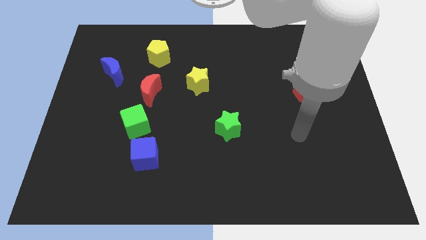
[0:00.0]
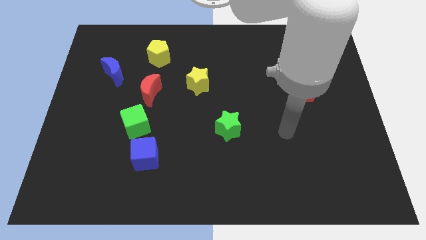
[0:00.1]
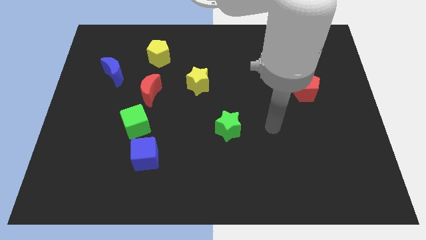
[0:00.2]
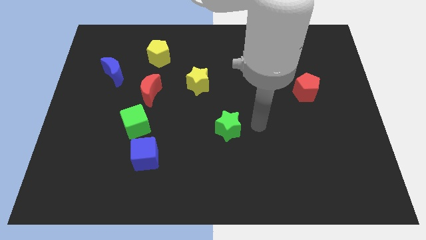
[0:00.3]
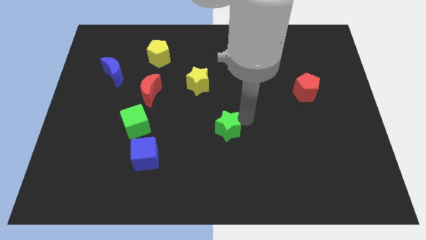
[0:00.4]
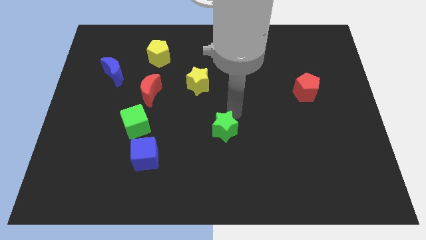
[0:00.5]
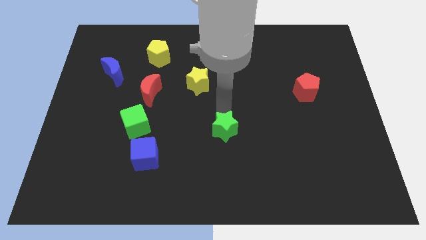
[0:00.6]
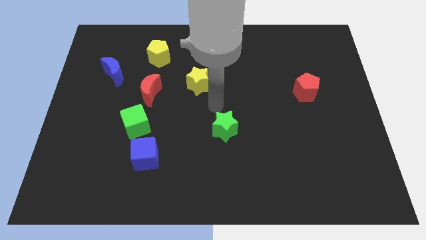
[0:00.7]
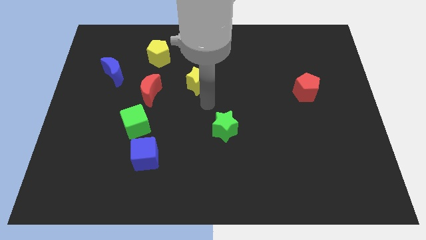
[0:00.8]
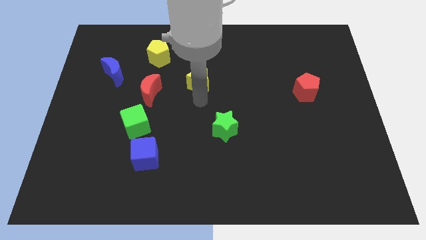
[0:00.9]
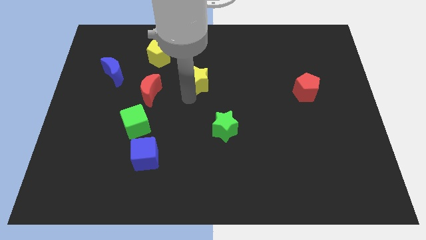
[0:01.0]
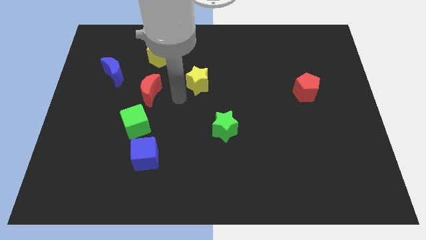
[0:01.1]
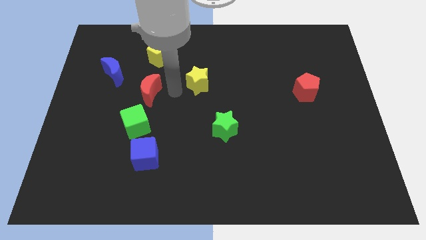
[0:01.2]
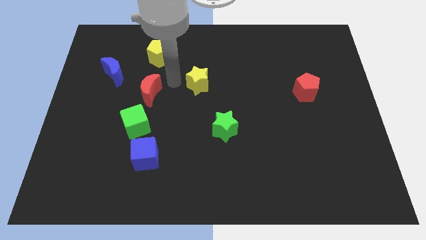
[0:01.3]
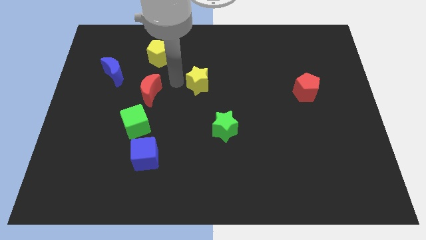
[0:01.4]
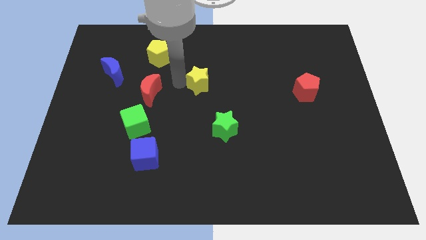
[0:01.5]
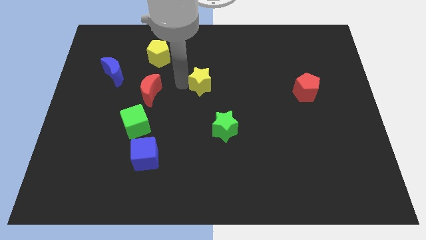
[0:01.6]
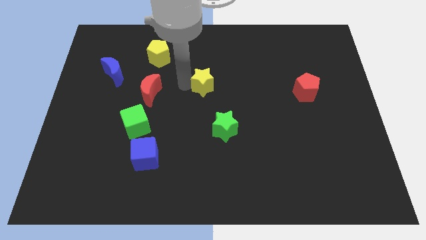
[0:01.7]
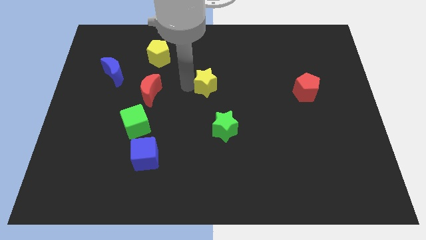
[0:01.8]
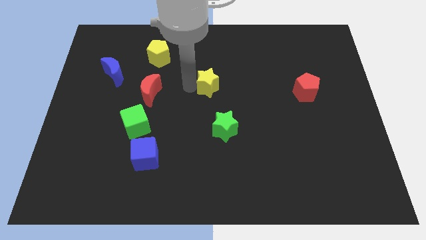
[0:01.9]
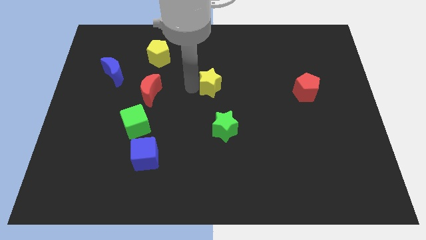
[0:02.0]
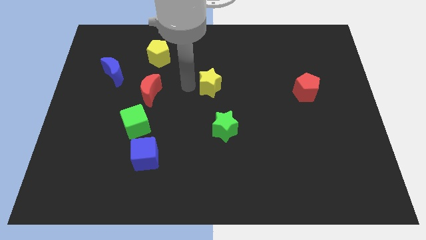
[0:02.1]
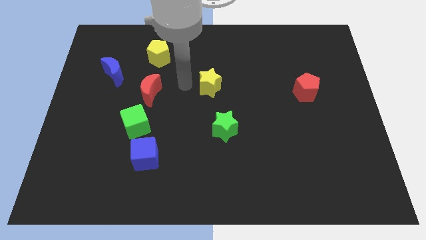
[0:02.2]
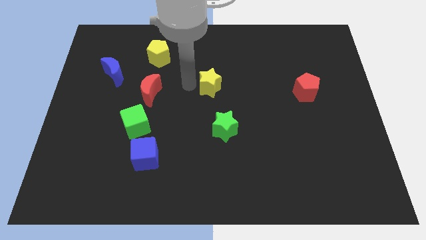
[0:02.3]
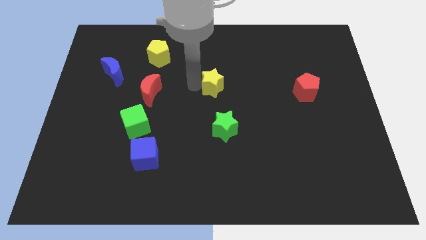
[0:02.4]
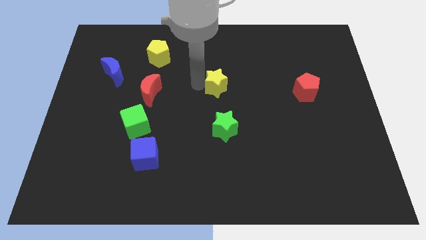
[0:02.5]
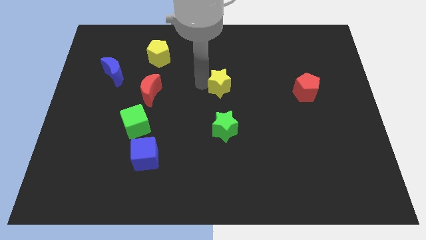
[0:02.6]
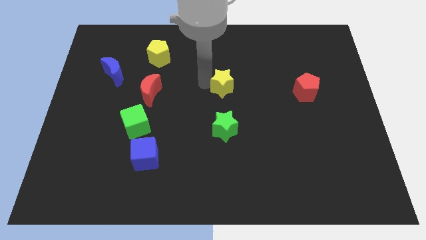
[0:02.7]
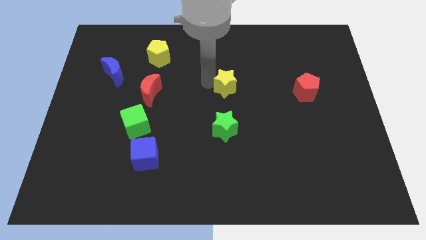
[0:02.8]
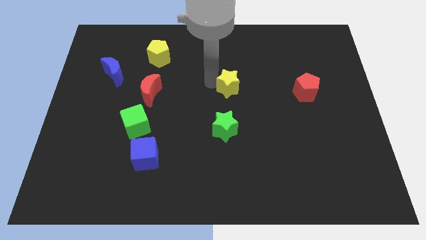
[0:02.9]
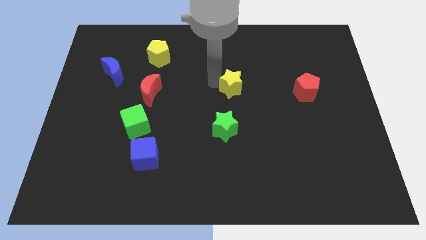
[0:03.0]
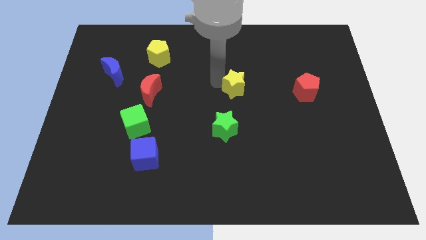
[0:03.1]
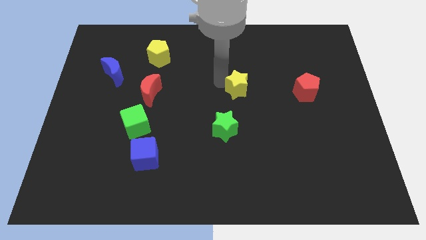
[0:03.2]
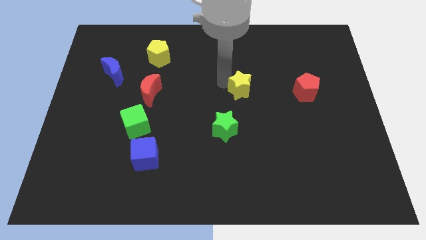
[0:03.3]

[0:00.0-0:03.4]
push the yellow star a little bit down and then right

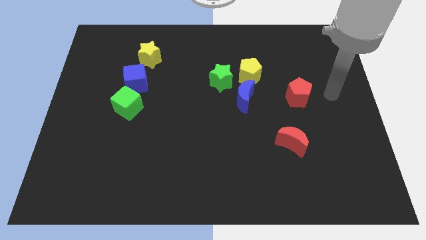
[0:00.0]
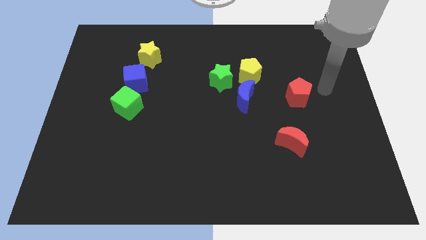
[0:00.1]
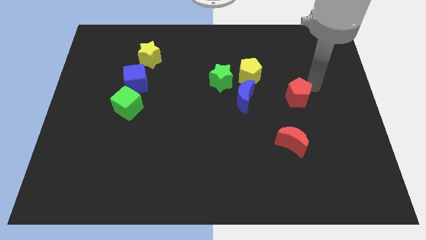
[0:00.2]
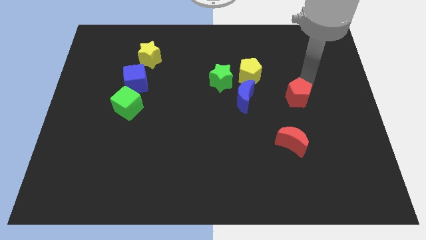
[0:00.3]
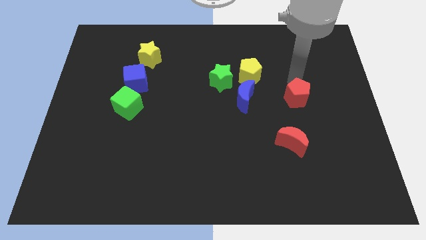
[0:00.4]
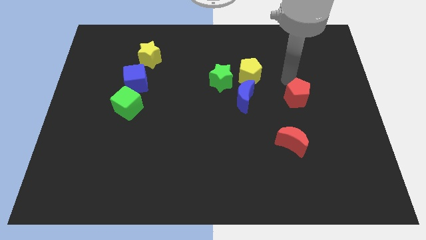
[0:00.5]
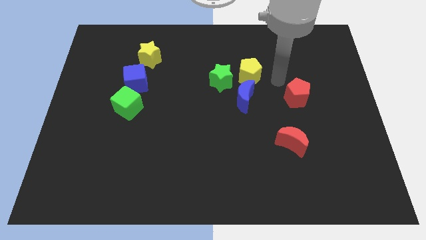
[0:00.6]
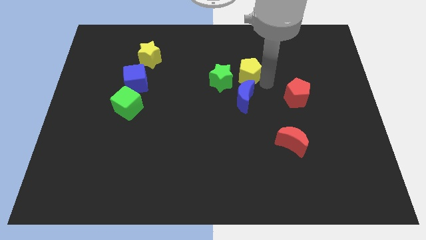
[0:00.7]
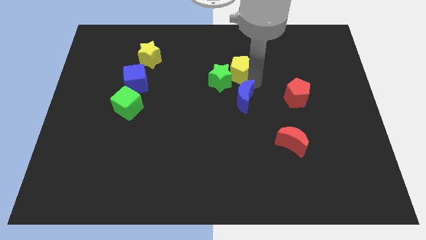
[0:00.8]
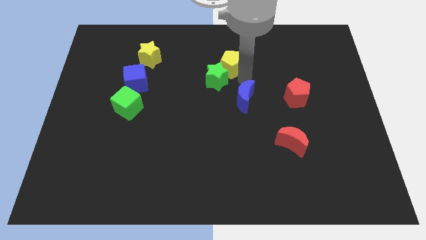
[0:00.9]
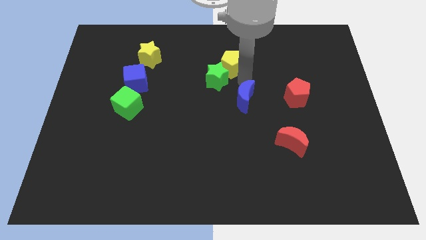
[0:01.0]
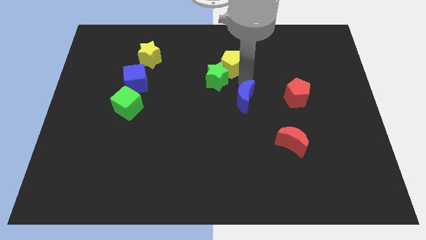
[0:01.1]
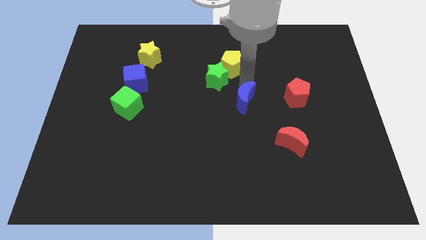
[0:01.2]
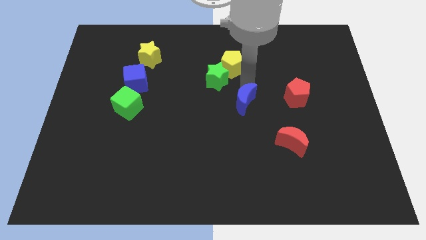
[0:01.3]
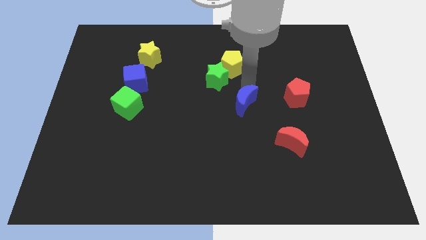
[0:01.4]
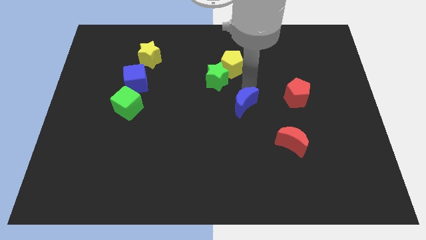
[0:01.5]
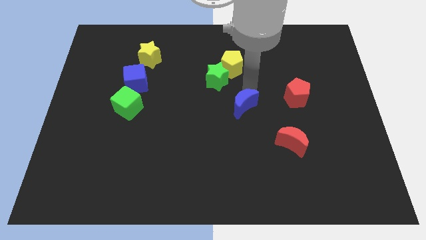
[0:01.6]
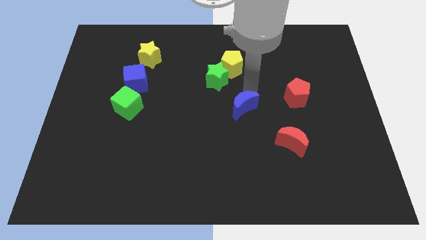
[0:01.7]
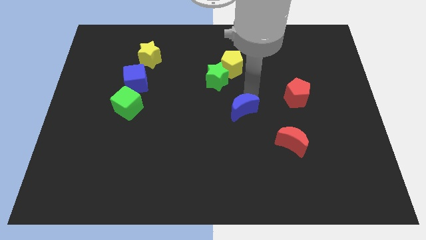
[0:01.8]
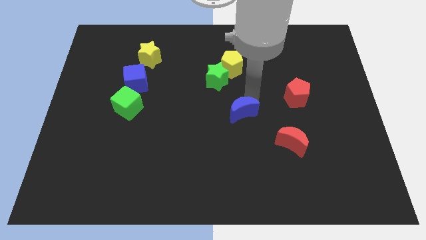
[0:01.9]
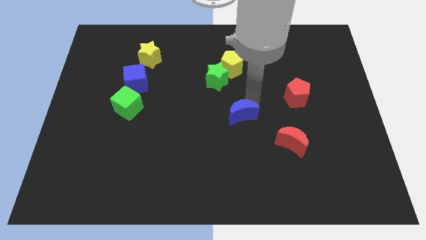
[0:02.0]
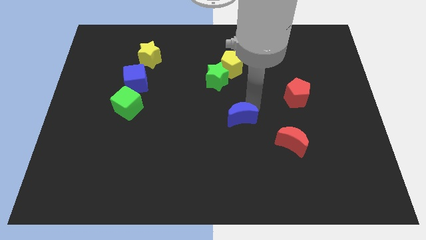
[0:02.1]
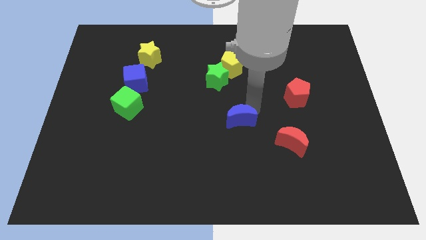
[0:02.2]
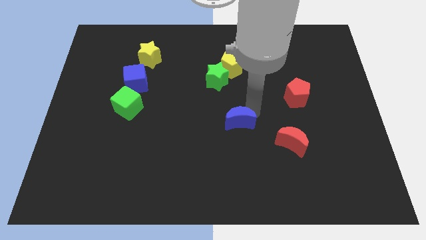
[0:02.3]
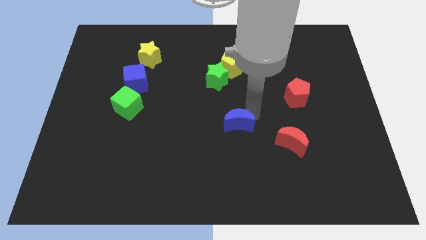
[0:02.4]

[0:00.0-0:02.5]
move the blue moon down a little bit

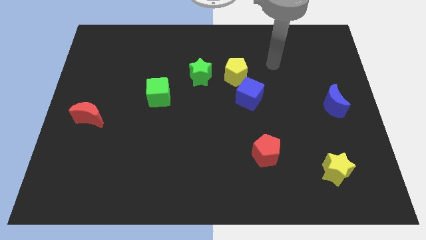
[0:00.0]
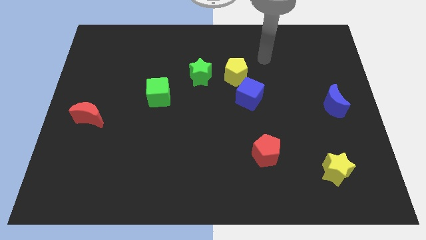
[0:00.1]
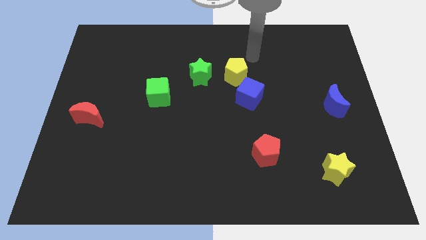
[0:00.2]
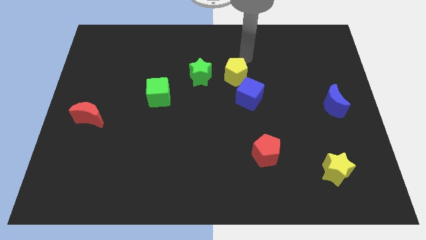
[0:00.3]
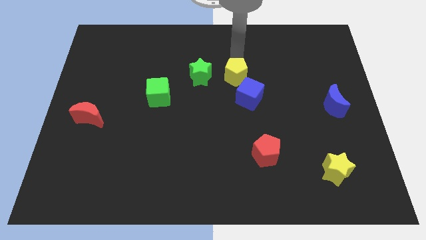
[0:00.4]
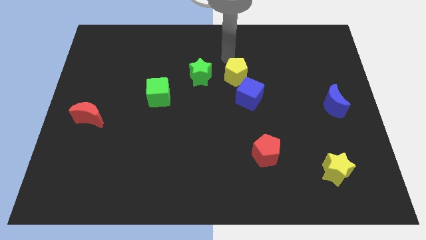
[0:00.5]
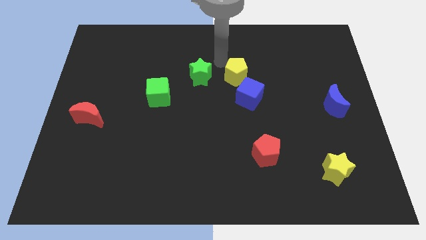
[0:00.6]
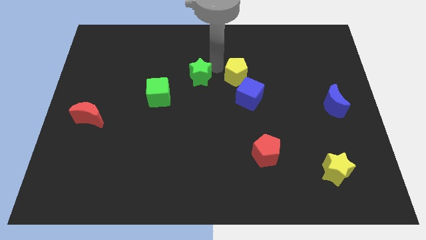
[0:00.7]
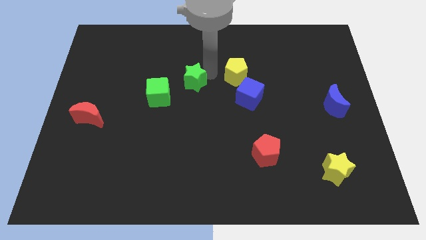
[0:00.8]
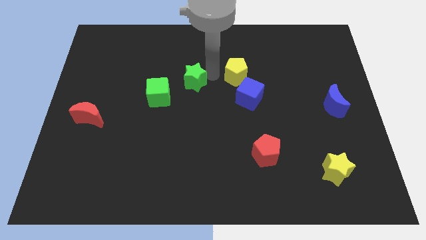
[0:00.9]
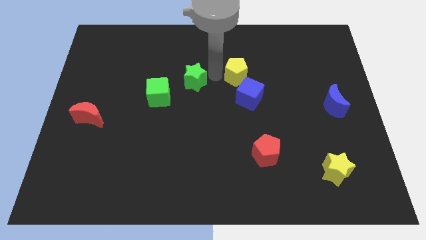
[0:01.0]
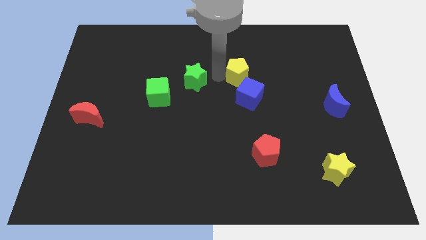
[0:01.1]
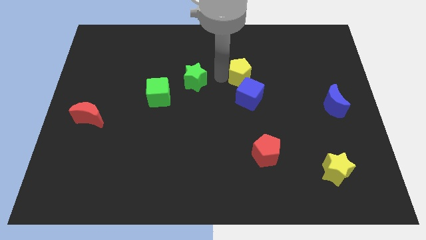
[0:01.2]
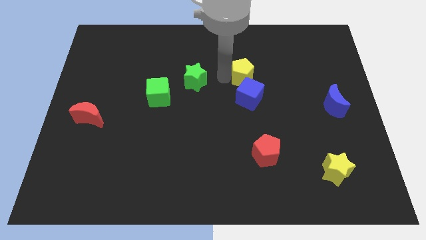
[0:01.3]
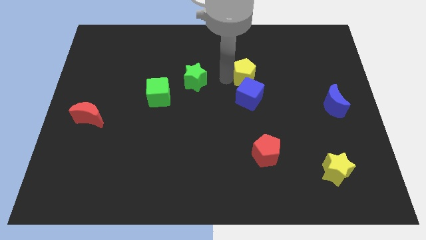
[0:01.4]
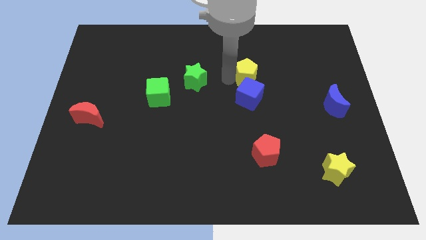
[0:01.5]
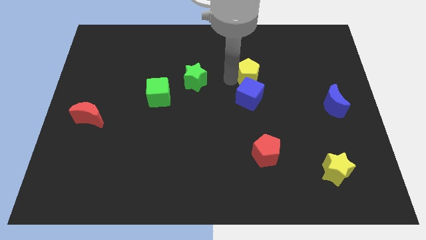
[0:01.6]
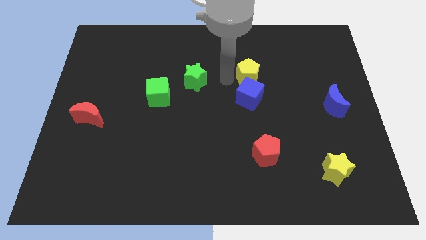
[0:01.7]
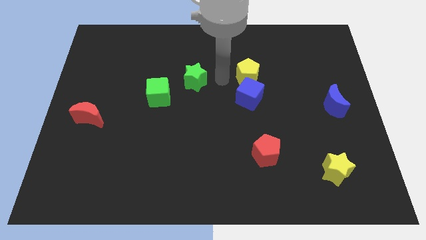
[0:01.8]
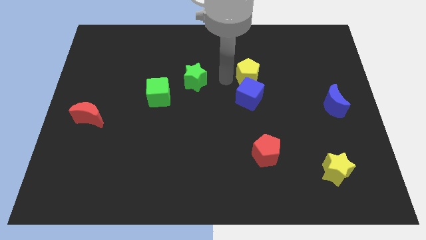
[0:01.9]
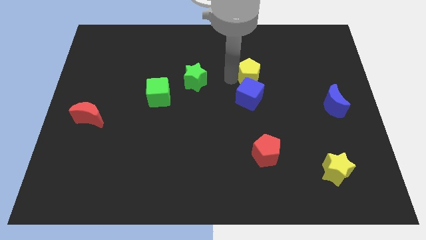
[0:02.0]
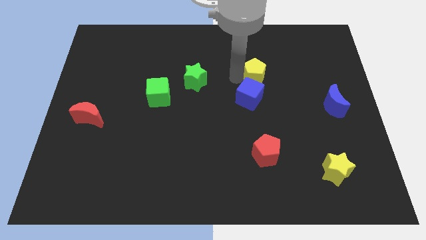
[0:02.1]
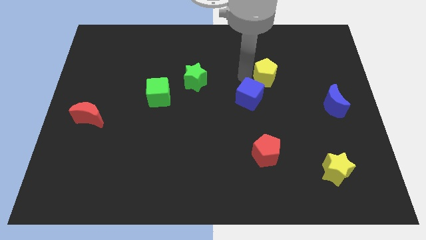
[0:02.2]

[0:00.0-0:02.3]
push the yellow pentagon a bit right

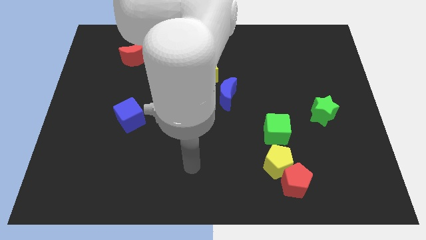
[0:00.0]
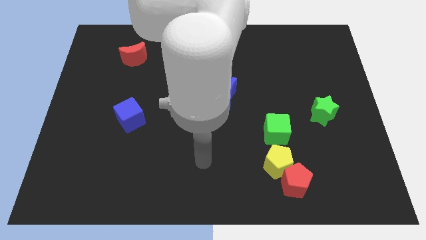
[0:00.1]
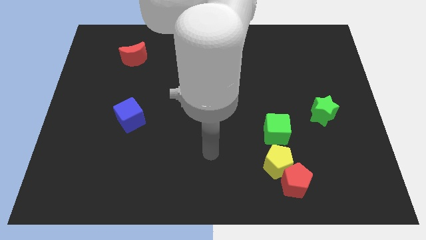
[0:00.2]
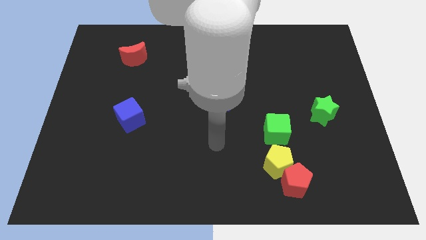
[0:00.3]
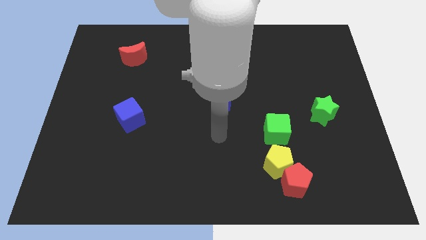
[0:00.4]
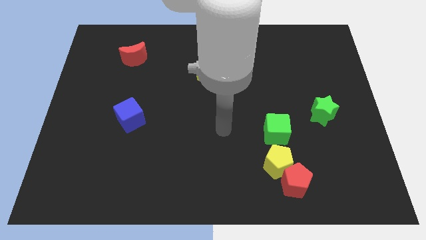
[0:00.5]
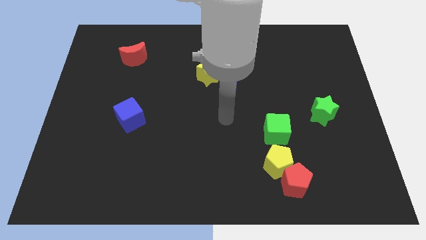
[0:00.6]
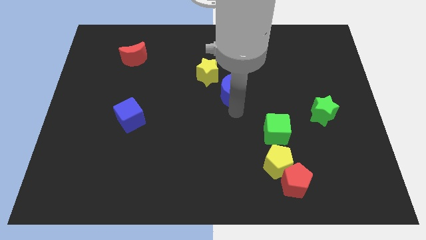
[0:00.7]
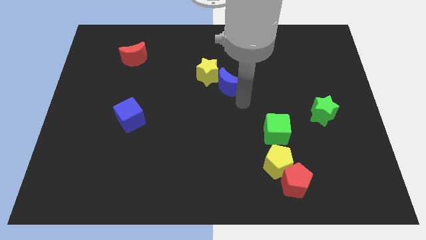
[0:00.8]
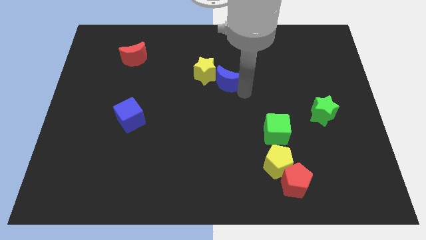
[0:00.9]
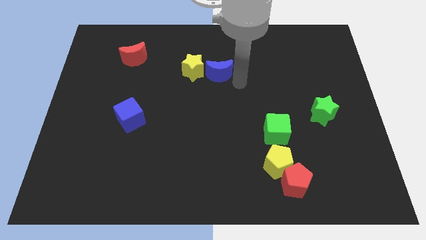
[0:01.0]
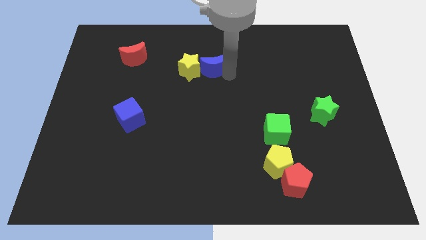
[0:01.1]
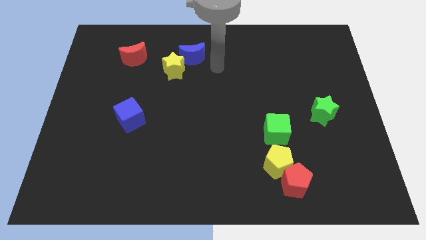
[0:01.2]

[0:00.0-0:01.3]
move the yellow star a bit to the left
